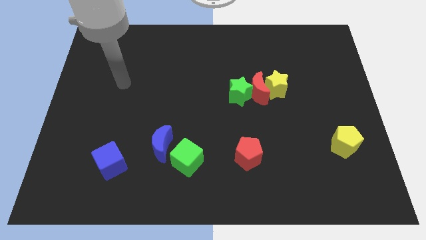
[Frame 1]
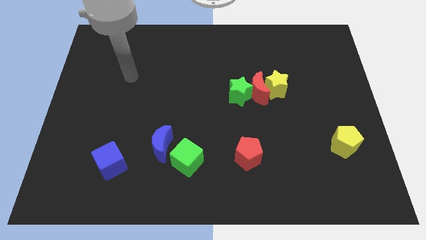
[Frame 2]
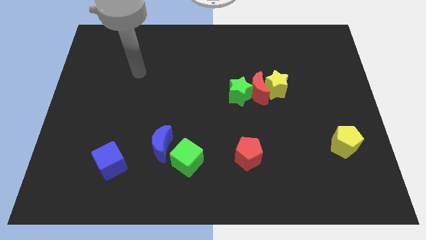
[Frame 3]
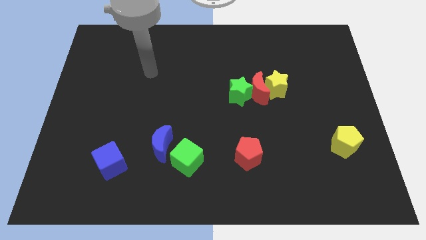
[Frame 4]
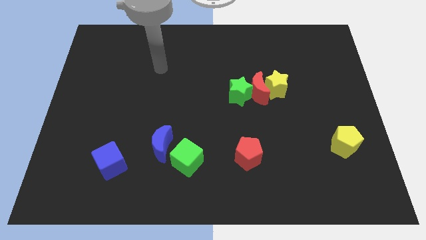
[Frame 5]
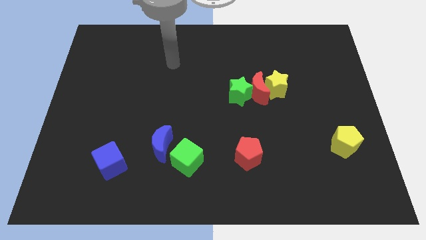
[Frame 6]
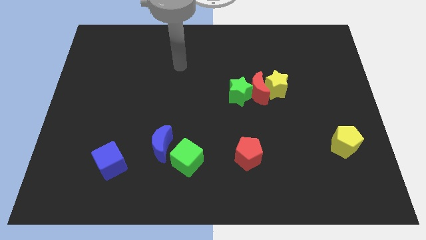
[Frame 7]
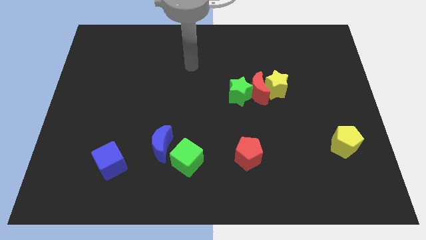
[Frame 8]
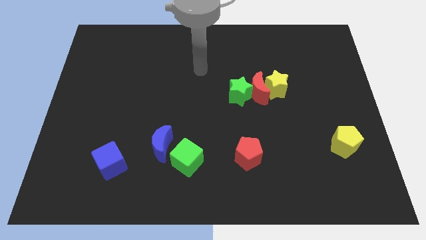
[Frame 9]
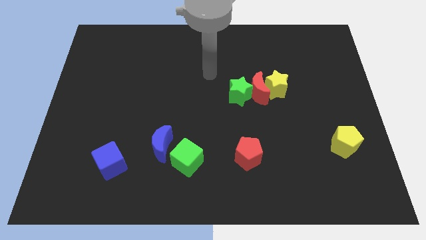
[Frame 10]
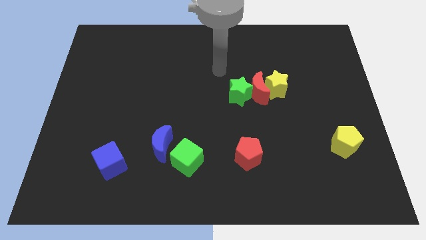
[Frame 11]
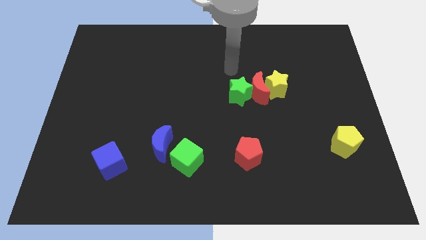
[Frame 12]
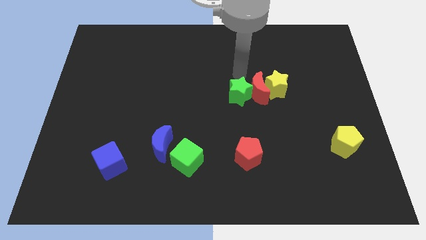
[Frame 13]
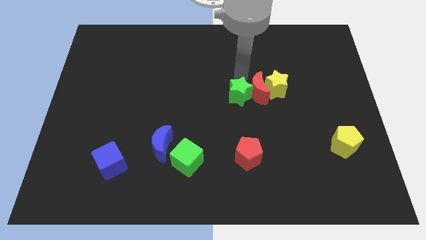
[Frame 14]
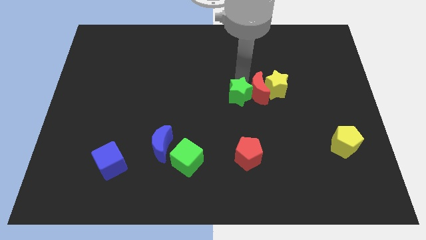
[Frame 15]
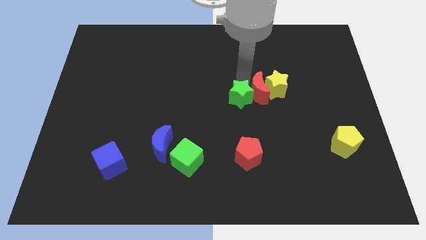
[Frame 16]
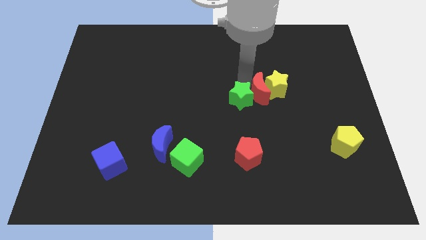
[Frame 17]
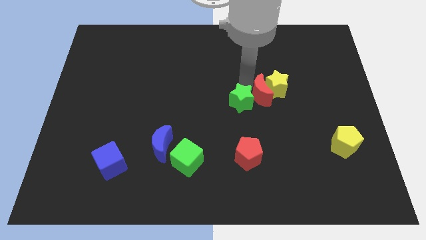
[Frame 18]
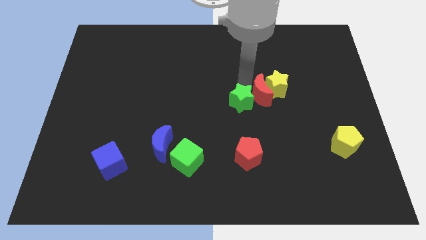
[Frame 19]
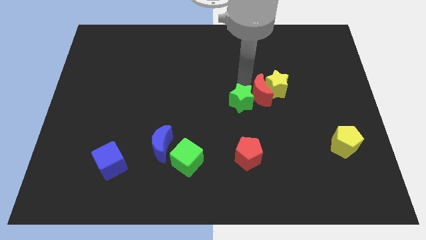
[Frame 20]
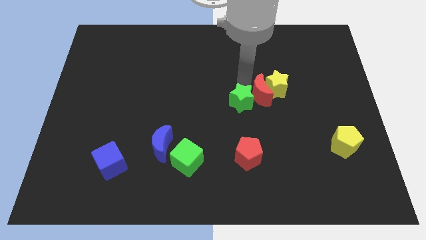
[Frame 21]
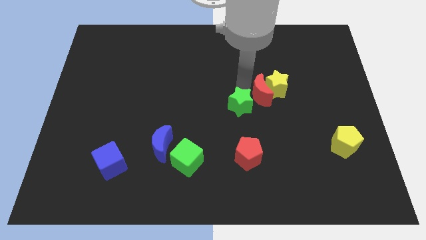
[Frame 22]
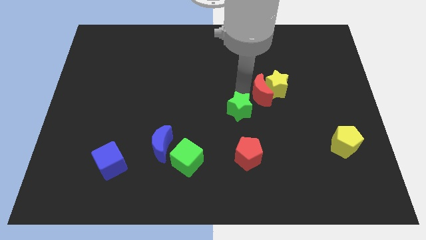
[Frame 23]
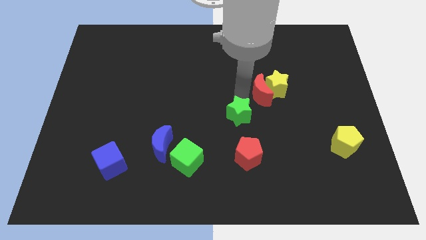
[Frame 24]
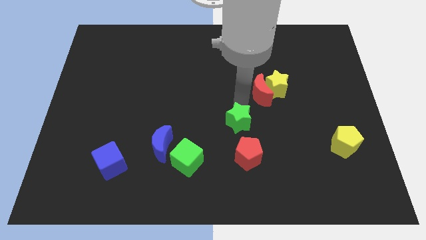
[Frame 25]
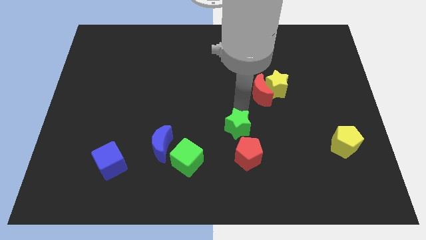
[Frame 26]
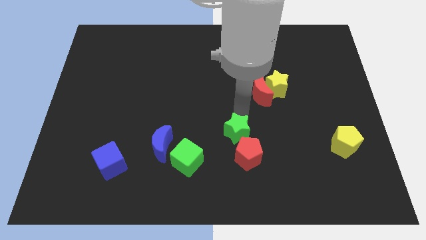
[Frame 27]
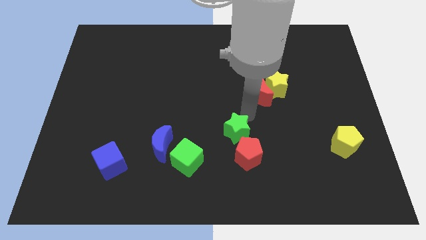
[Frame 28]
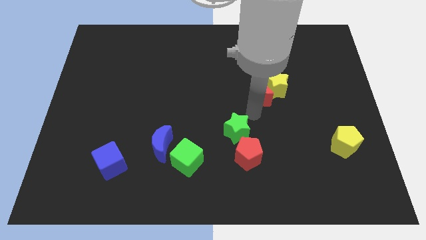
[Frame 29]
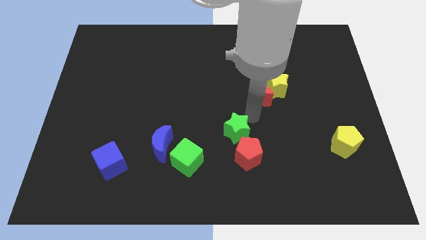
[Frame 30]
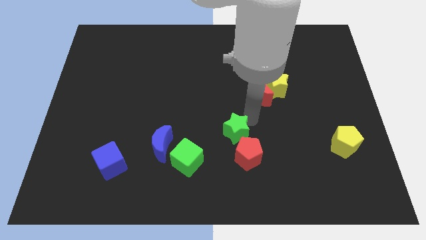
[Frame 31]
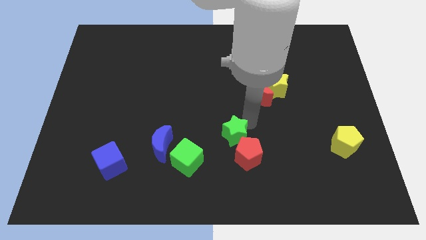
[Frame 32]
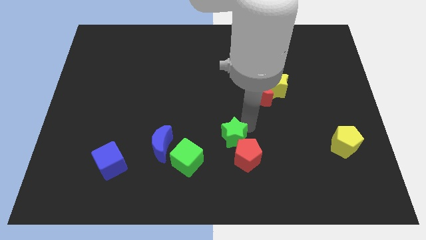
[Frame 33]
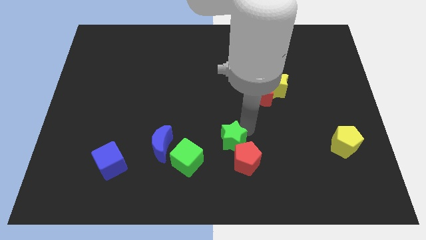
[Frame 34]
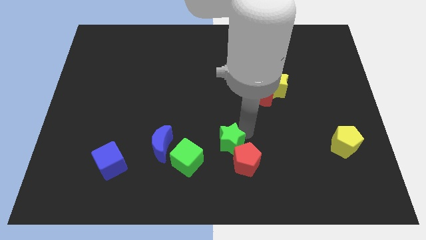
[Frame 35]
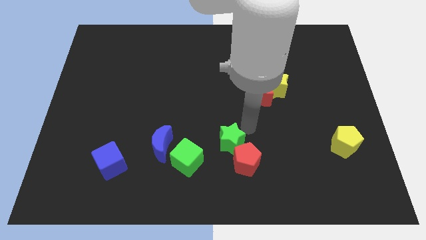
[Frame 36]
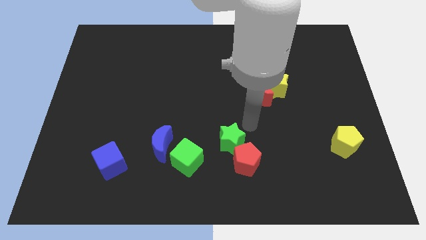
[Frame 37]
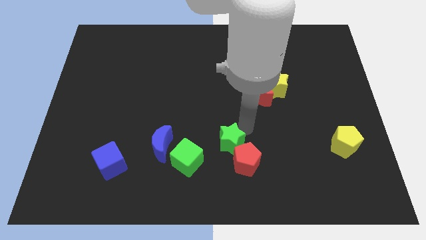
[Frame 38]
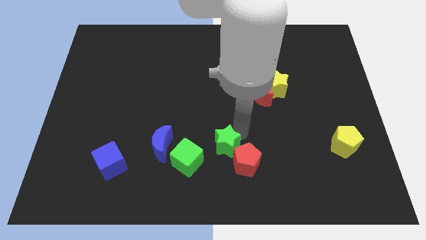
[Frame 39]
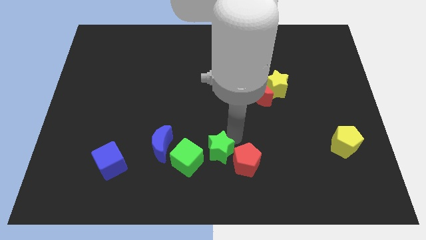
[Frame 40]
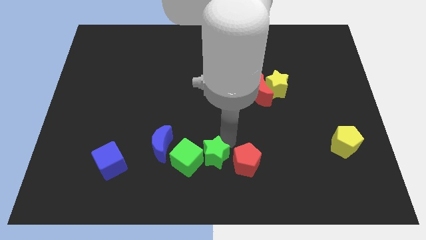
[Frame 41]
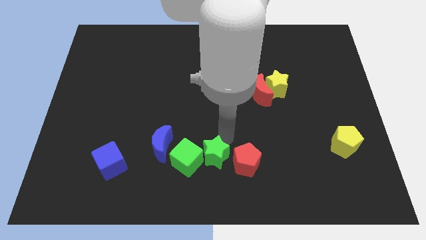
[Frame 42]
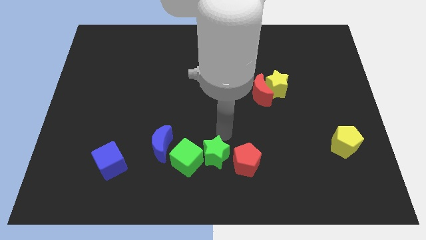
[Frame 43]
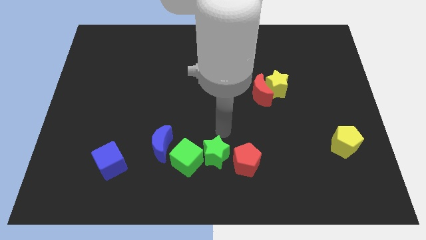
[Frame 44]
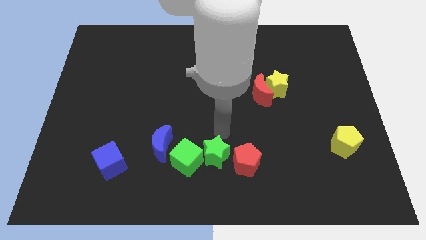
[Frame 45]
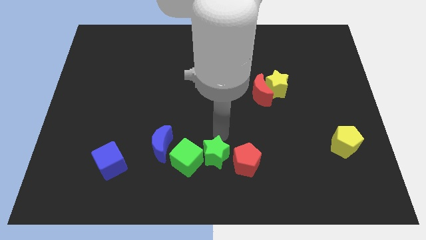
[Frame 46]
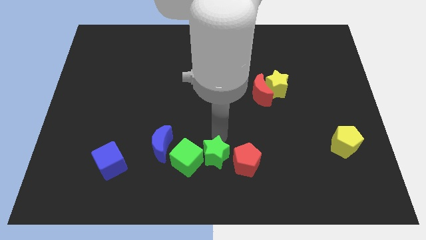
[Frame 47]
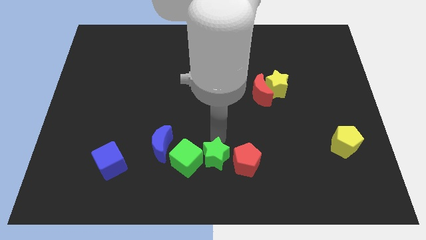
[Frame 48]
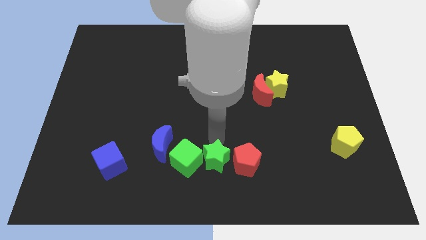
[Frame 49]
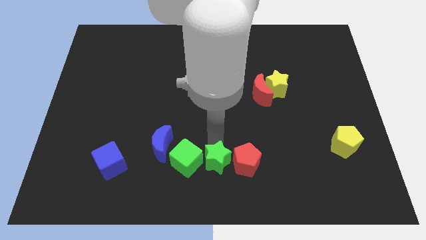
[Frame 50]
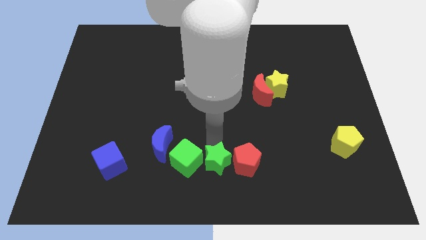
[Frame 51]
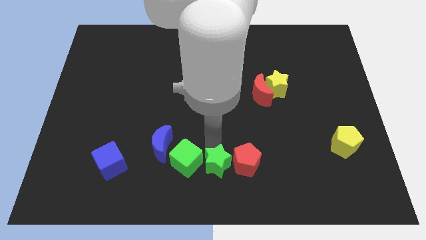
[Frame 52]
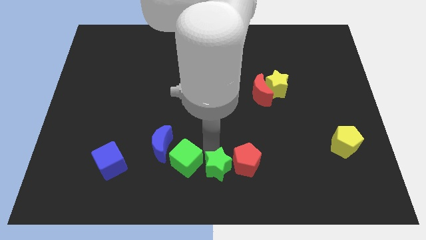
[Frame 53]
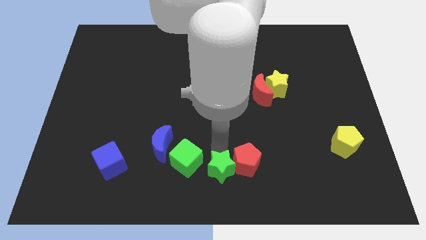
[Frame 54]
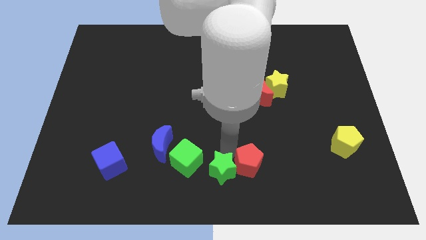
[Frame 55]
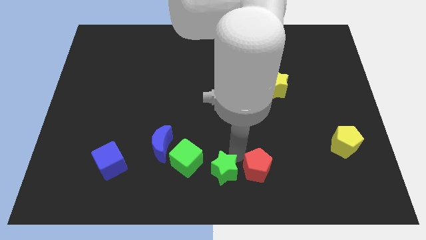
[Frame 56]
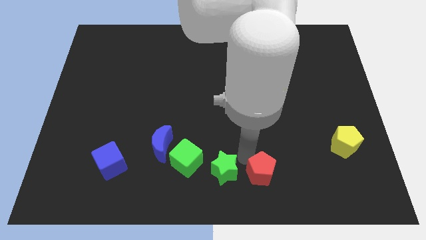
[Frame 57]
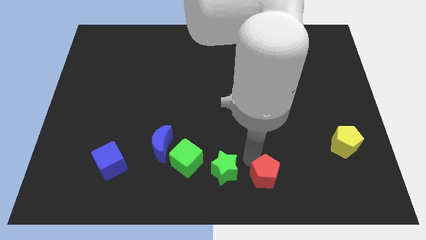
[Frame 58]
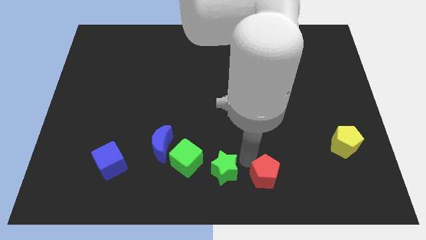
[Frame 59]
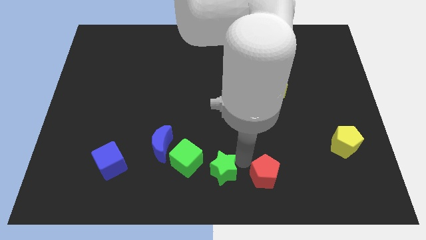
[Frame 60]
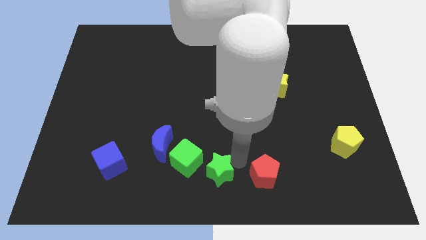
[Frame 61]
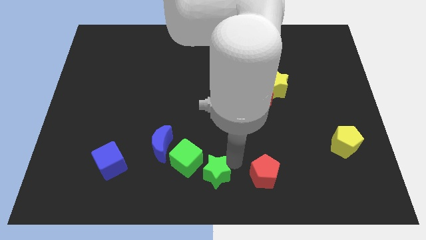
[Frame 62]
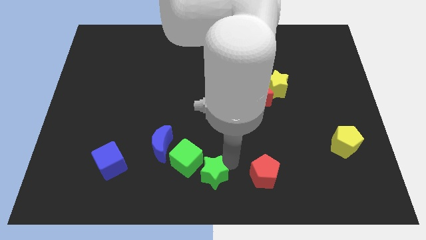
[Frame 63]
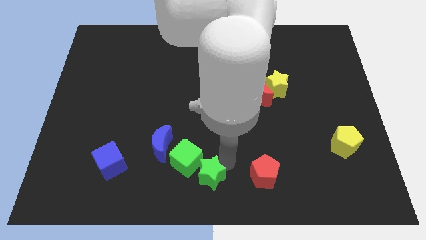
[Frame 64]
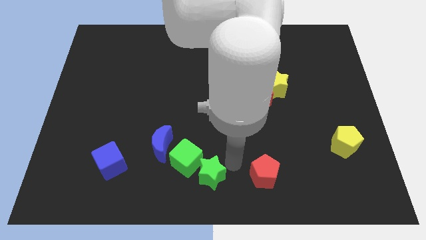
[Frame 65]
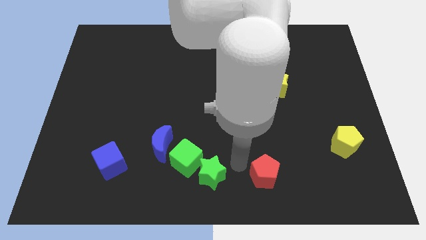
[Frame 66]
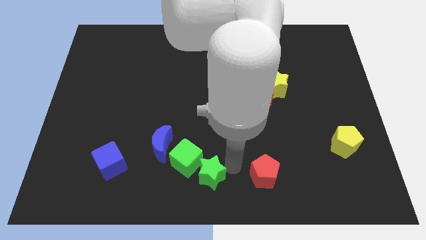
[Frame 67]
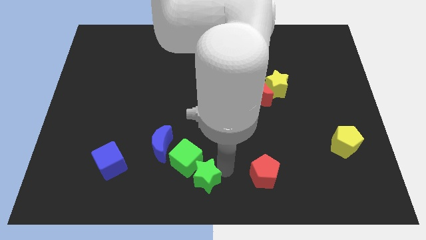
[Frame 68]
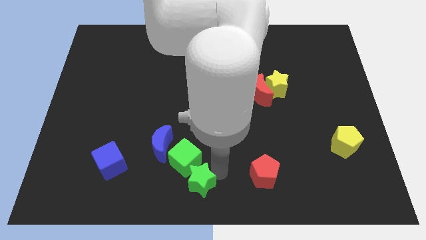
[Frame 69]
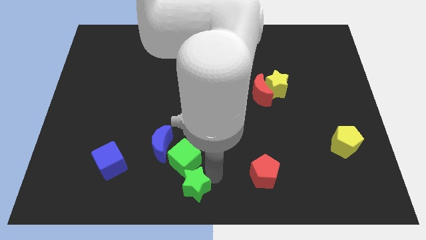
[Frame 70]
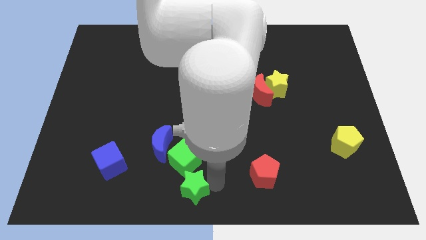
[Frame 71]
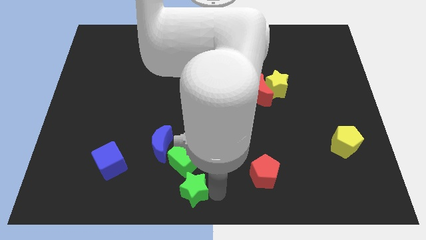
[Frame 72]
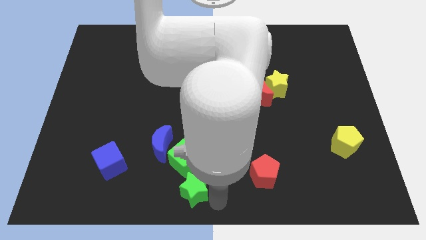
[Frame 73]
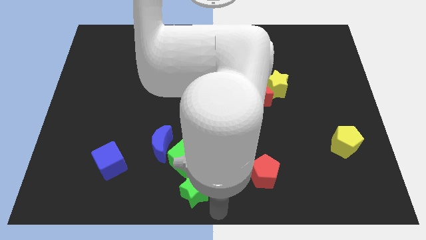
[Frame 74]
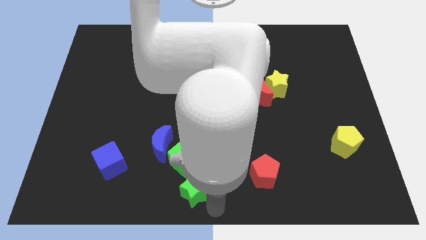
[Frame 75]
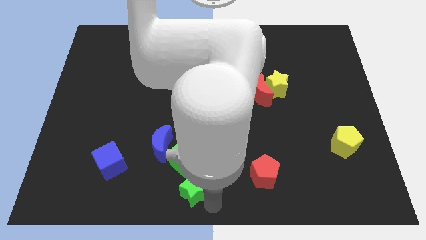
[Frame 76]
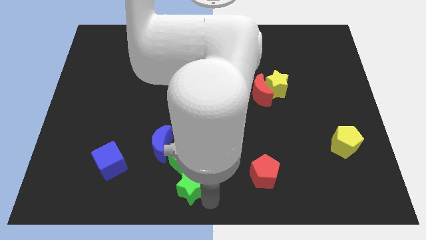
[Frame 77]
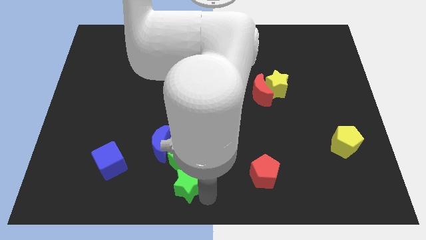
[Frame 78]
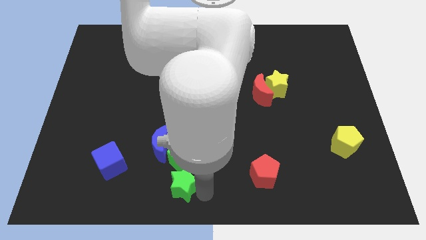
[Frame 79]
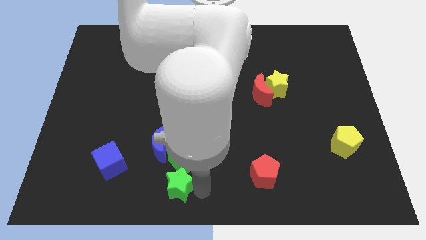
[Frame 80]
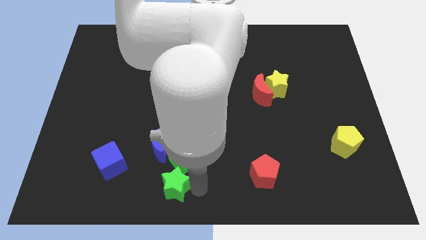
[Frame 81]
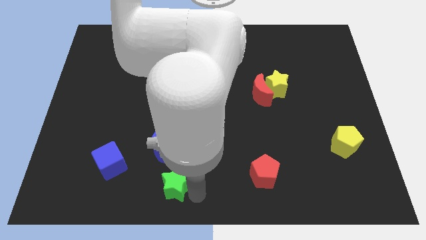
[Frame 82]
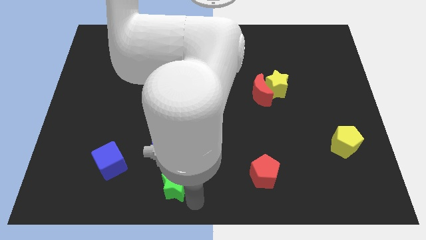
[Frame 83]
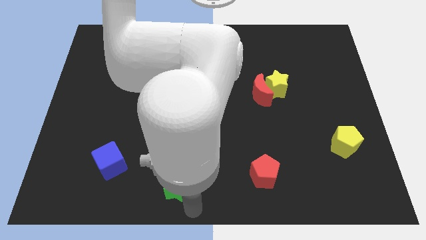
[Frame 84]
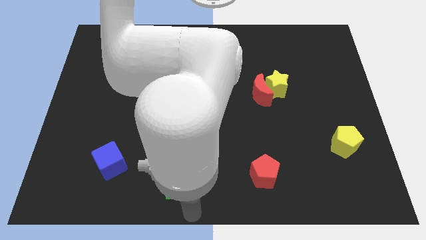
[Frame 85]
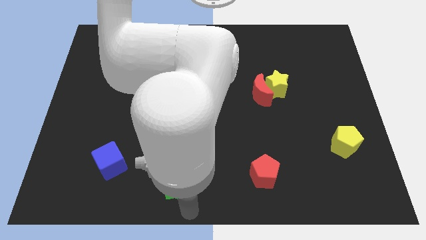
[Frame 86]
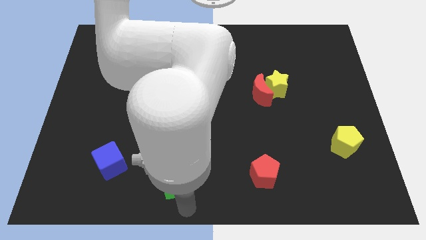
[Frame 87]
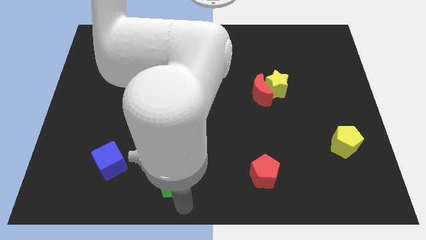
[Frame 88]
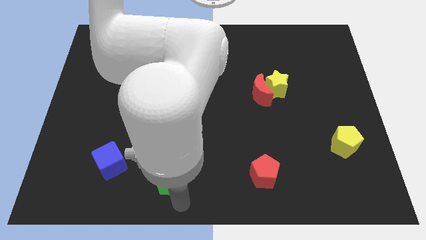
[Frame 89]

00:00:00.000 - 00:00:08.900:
slide the green star right of the blue cube
